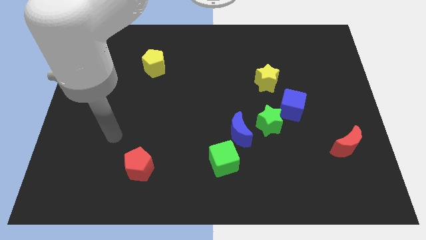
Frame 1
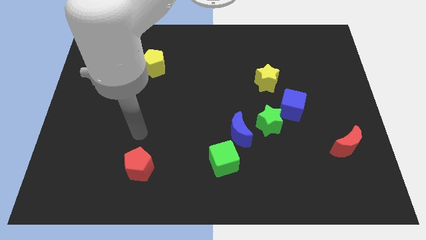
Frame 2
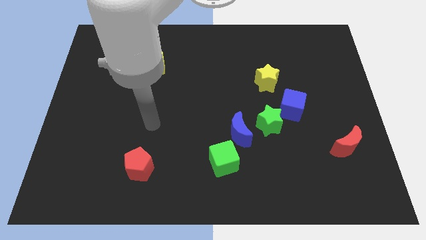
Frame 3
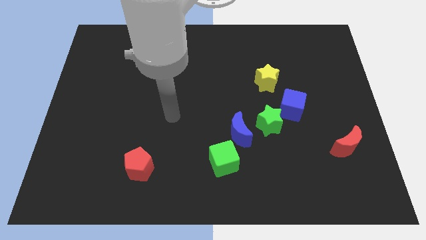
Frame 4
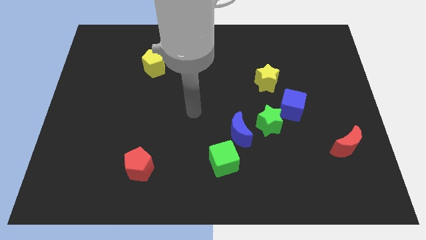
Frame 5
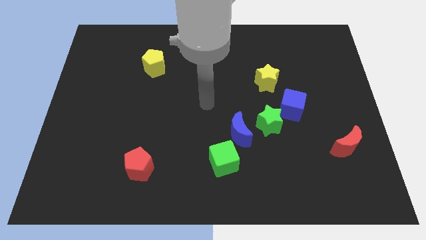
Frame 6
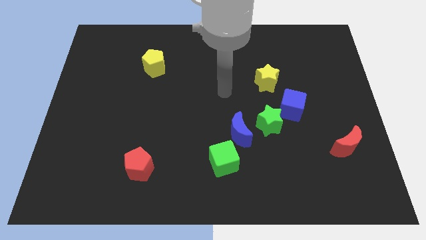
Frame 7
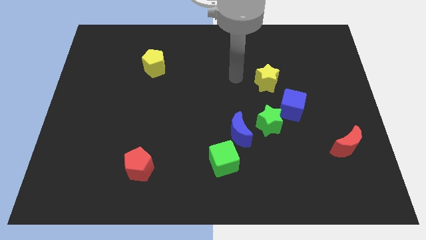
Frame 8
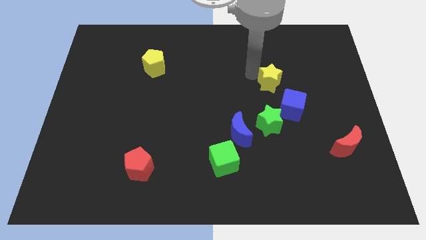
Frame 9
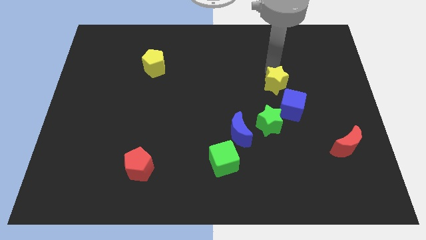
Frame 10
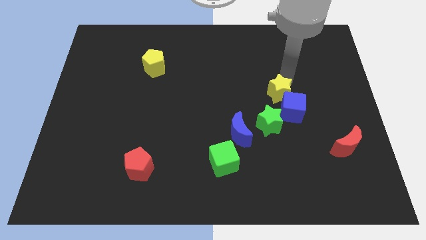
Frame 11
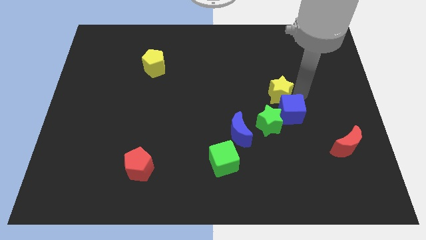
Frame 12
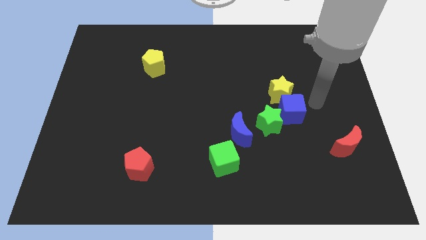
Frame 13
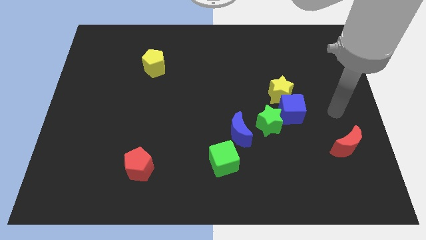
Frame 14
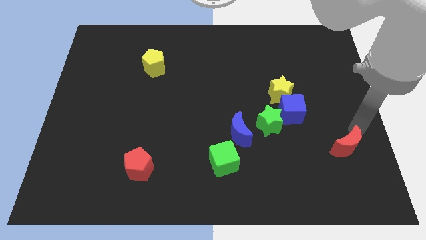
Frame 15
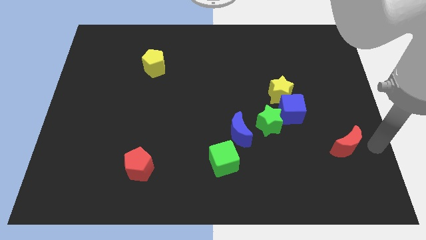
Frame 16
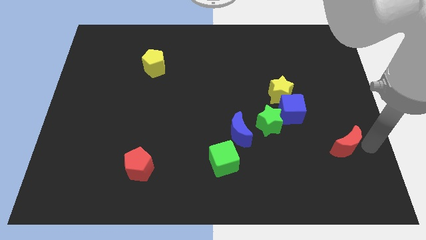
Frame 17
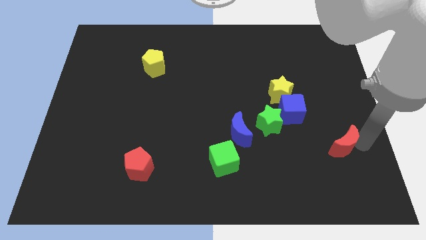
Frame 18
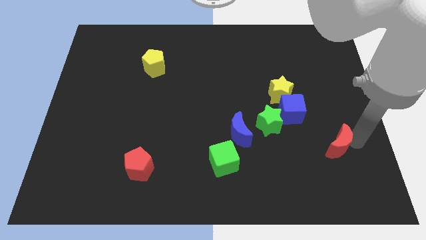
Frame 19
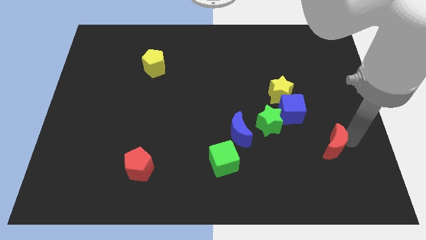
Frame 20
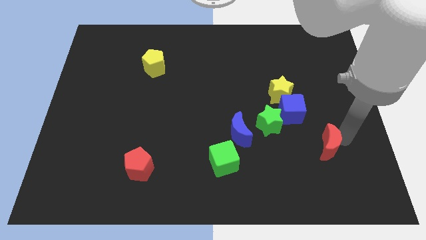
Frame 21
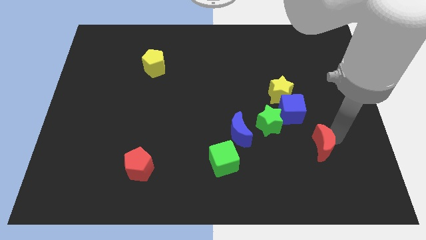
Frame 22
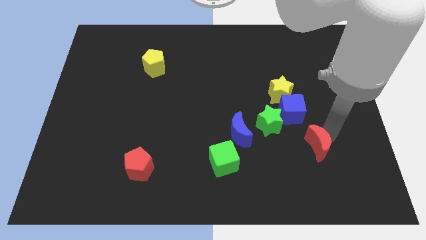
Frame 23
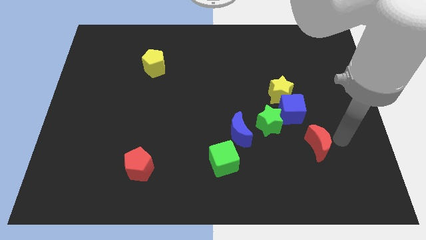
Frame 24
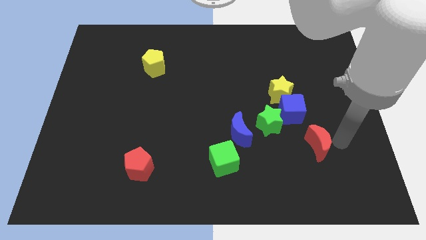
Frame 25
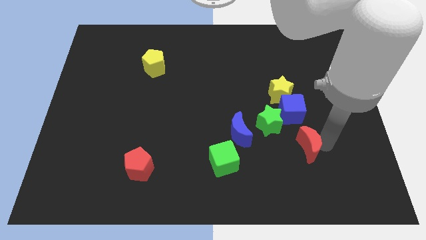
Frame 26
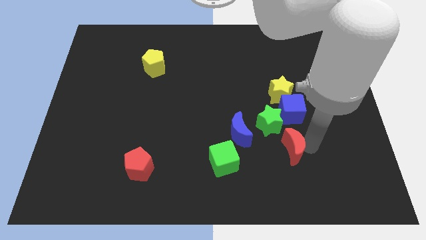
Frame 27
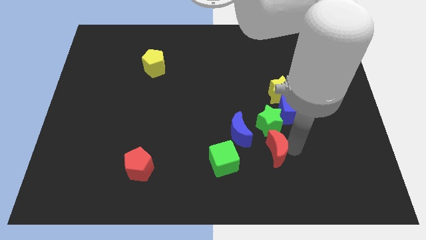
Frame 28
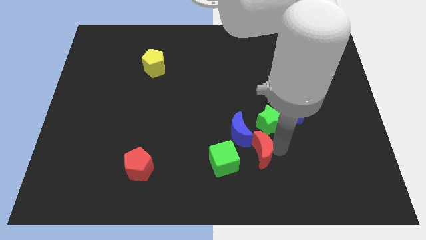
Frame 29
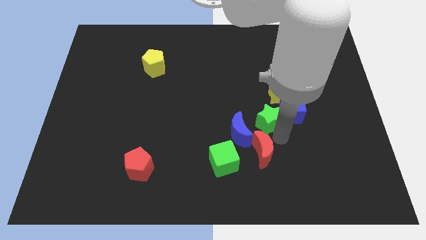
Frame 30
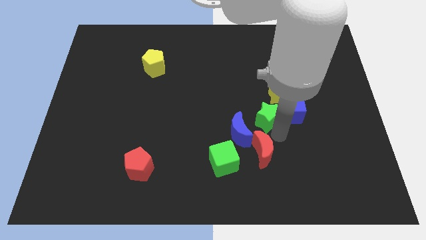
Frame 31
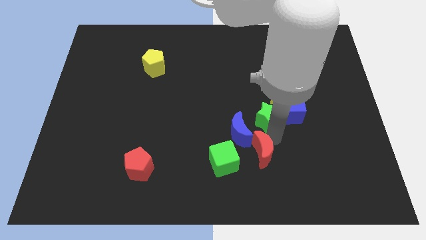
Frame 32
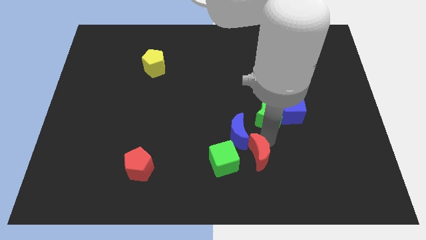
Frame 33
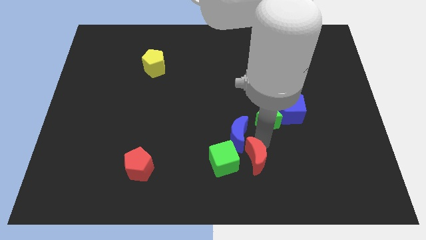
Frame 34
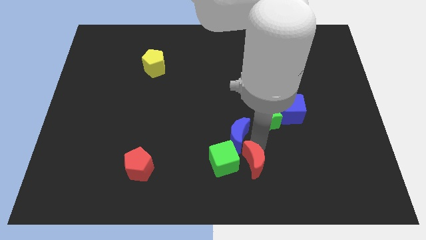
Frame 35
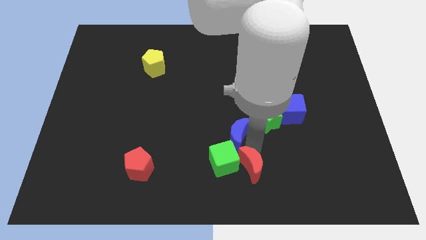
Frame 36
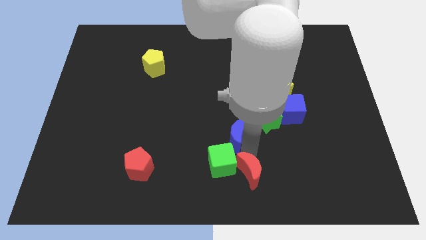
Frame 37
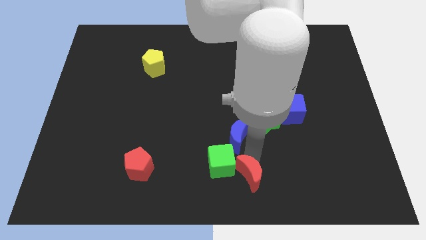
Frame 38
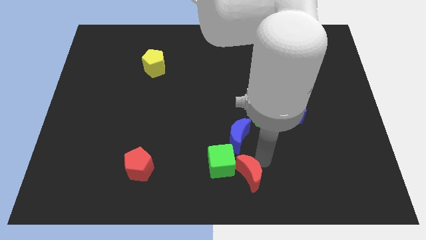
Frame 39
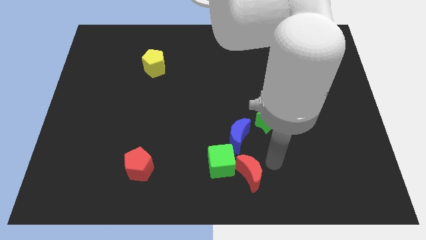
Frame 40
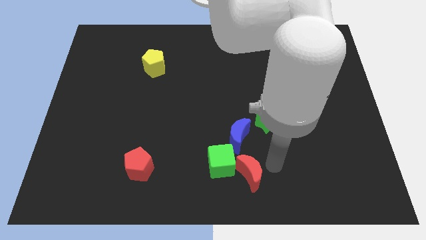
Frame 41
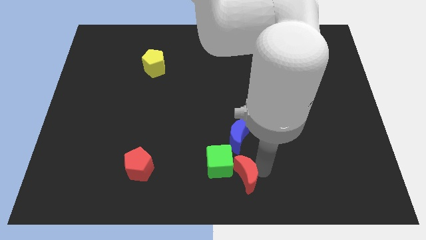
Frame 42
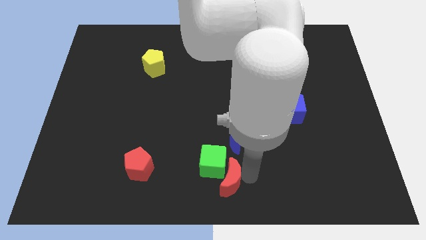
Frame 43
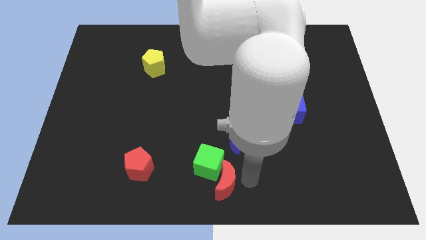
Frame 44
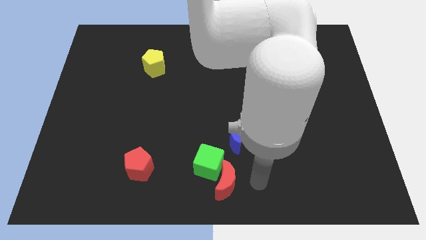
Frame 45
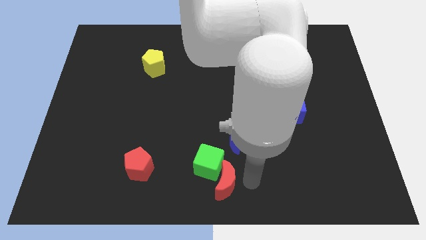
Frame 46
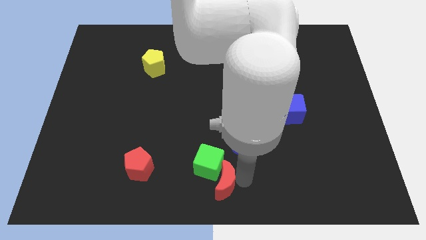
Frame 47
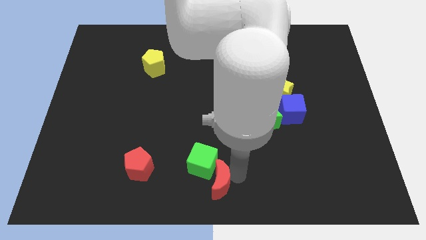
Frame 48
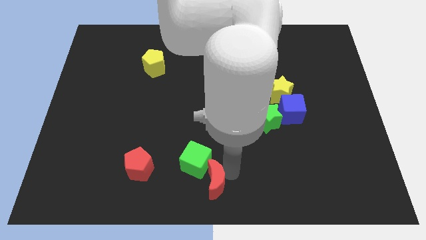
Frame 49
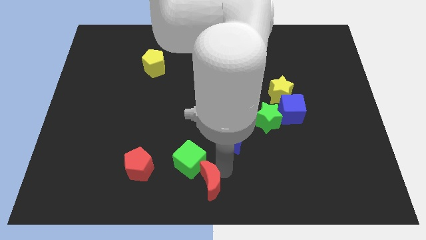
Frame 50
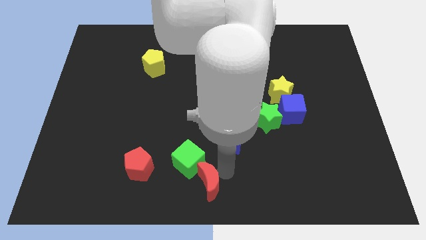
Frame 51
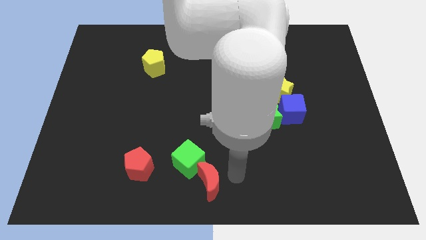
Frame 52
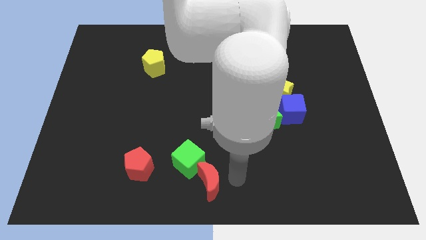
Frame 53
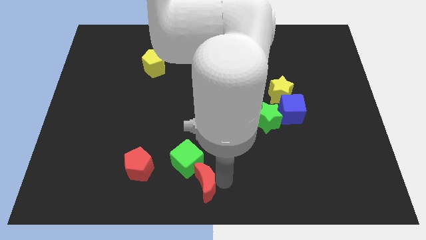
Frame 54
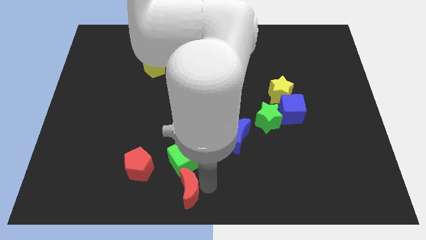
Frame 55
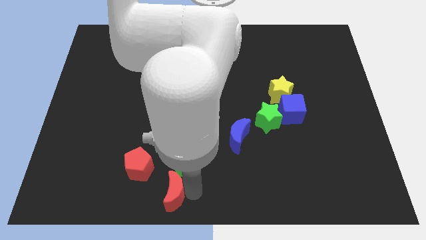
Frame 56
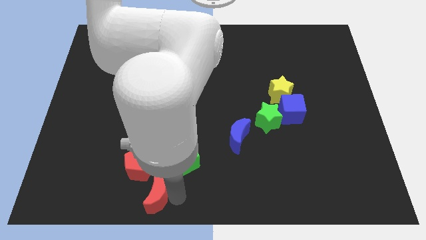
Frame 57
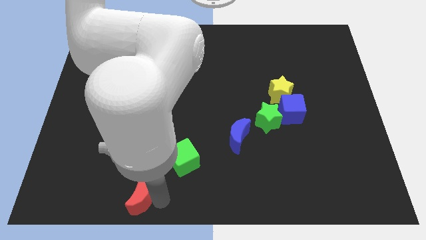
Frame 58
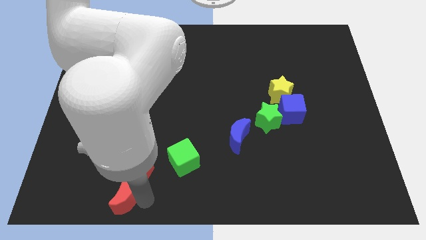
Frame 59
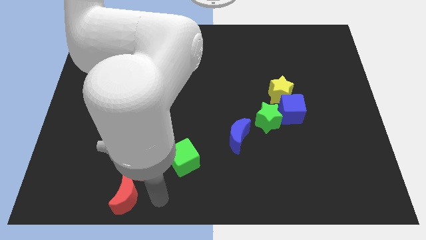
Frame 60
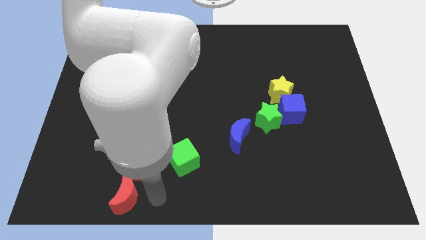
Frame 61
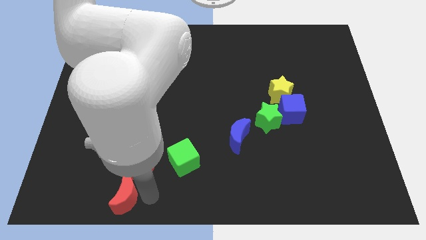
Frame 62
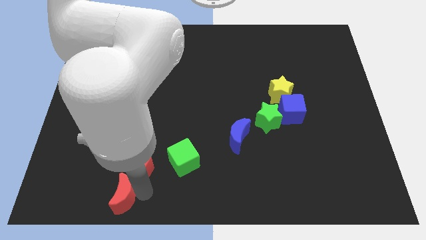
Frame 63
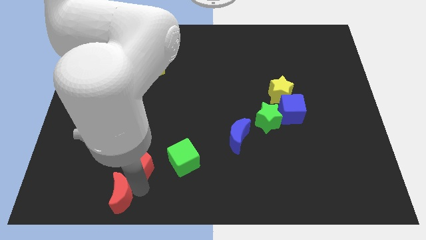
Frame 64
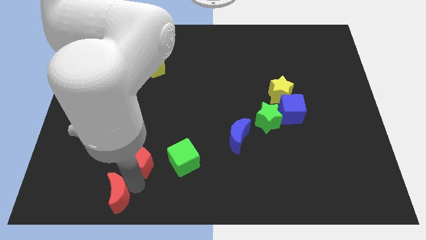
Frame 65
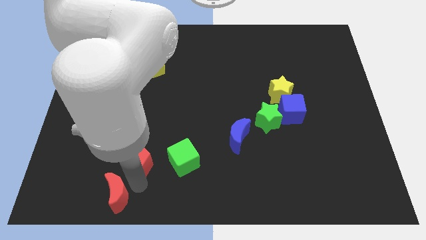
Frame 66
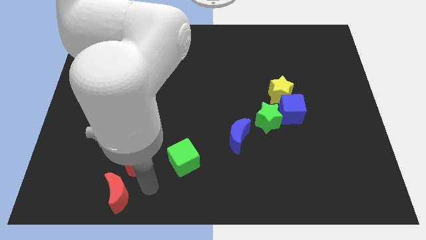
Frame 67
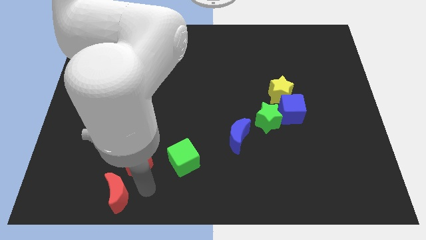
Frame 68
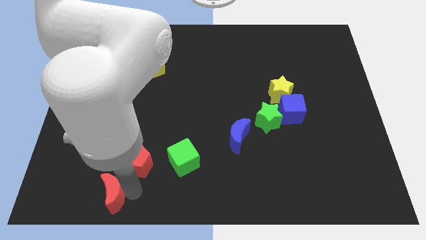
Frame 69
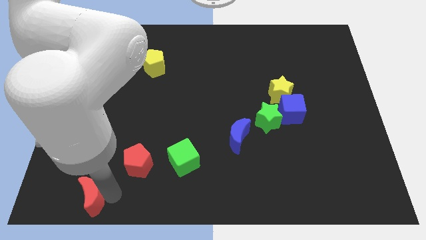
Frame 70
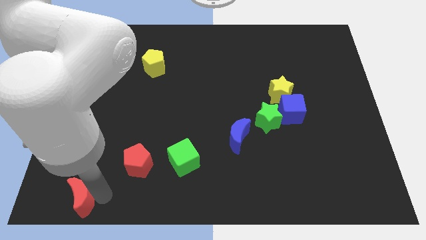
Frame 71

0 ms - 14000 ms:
push the red moon to the bottom left corner
